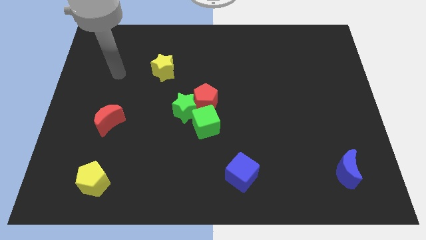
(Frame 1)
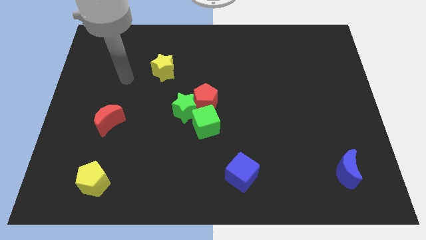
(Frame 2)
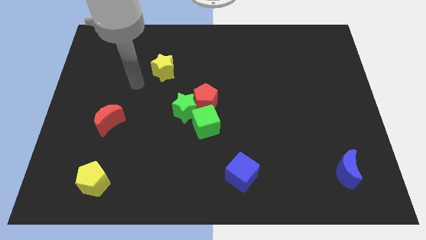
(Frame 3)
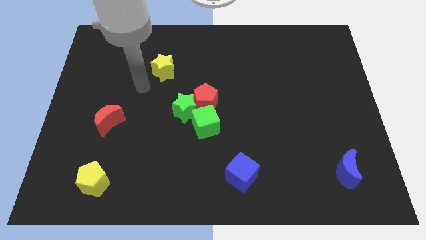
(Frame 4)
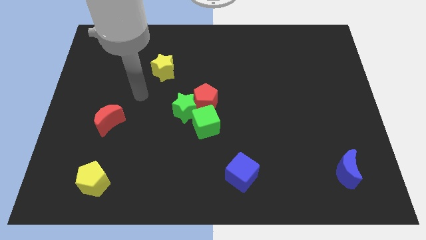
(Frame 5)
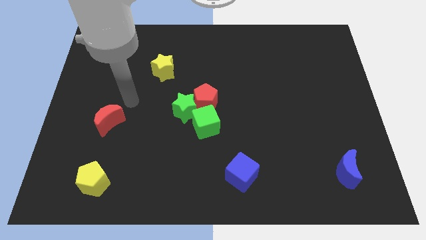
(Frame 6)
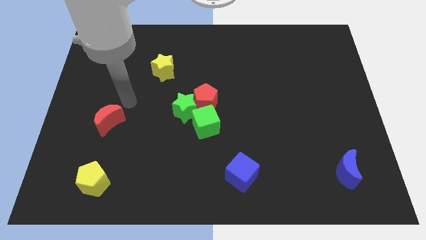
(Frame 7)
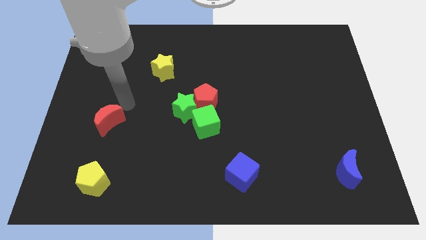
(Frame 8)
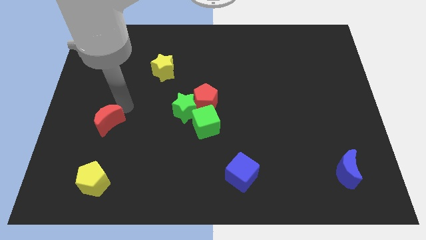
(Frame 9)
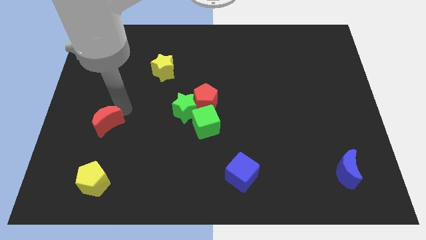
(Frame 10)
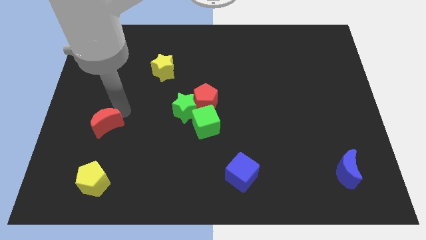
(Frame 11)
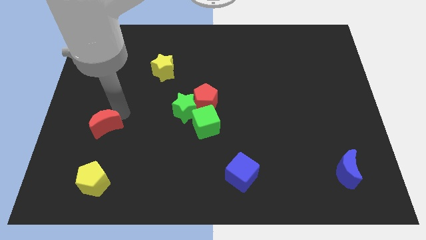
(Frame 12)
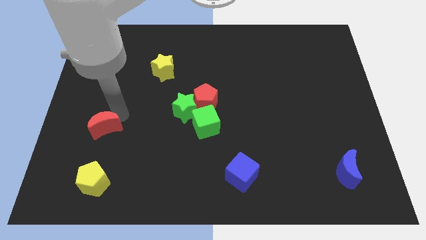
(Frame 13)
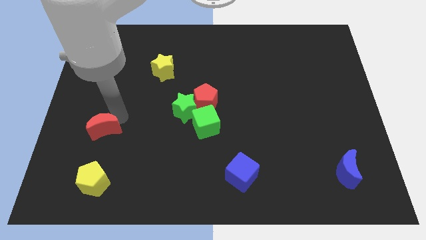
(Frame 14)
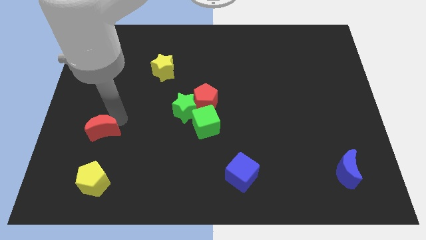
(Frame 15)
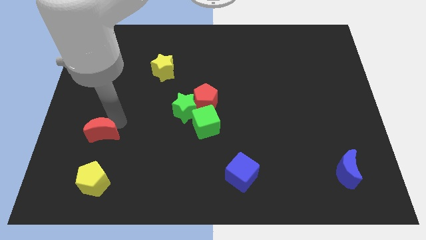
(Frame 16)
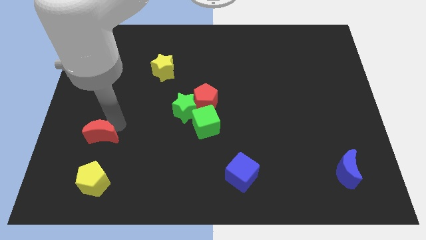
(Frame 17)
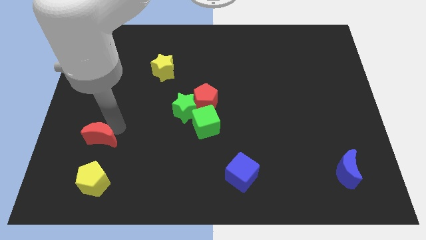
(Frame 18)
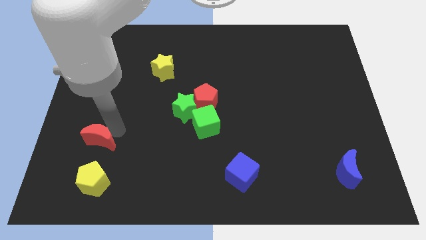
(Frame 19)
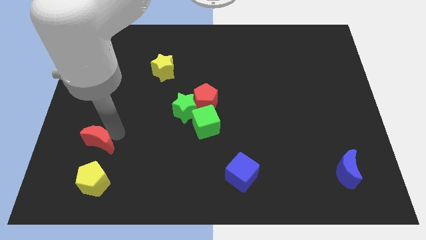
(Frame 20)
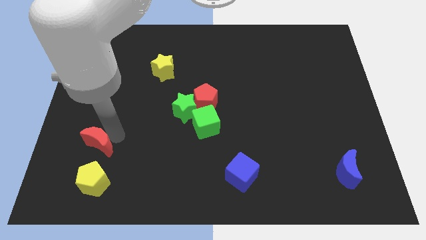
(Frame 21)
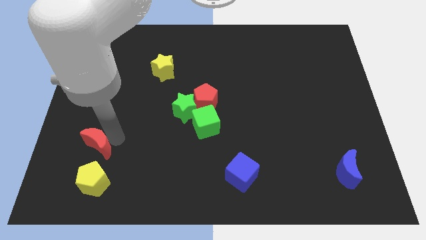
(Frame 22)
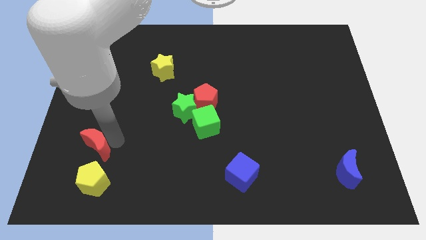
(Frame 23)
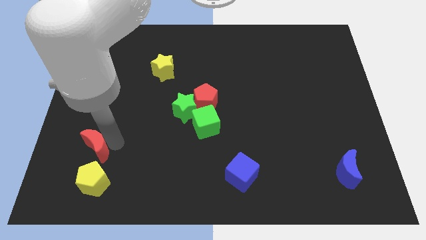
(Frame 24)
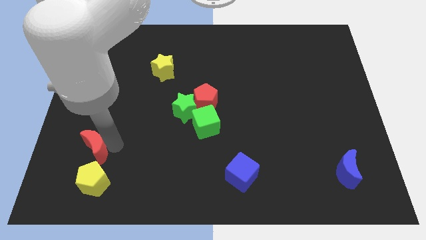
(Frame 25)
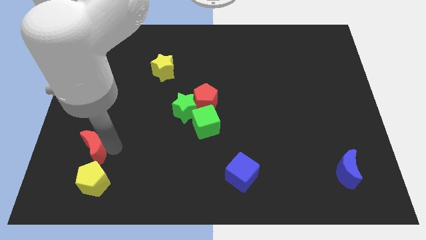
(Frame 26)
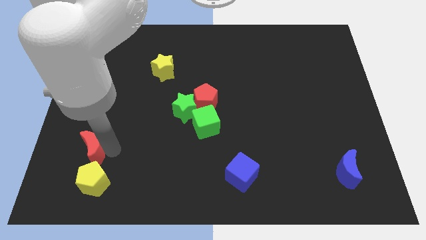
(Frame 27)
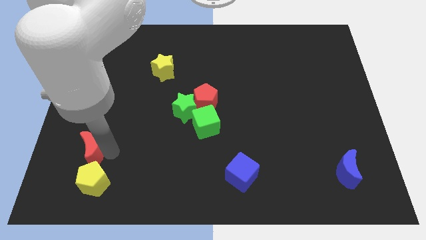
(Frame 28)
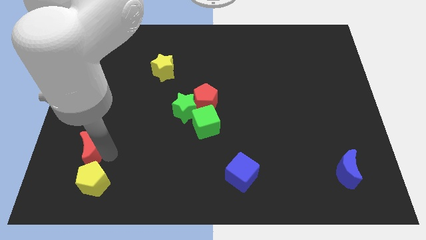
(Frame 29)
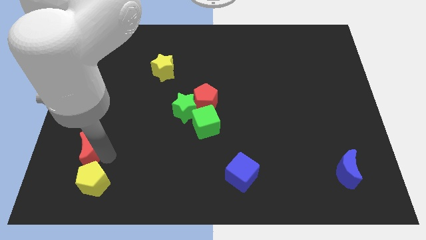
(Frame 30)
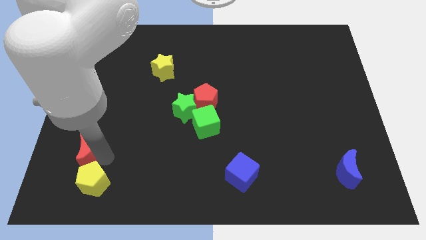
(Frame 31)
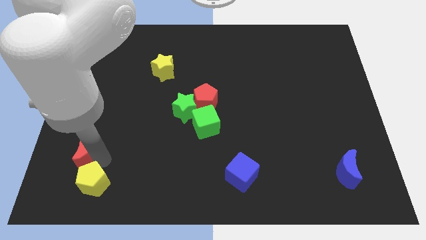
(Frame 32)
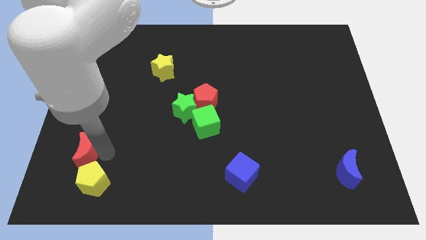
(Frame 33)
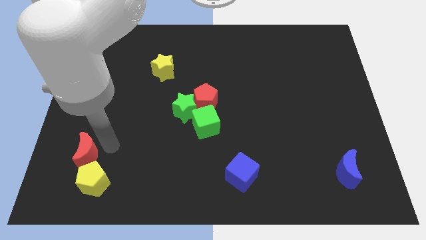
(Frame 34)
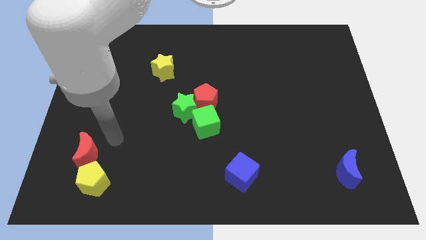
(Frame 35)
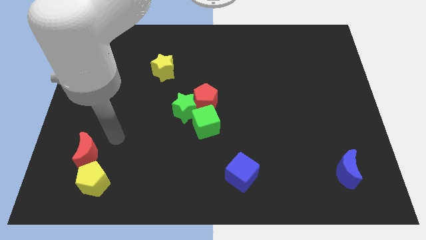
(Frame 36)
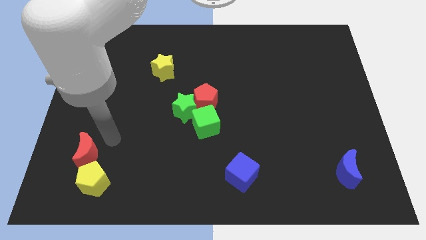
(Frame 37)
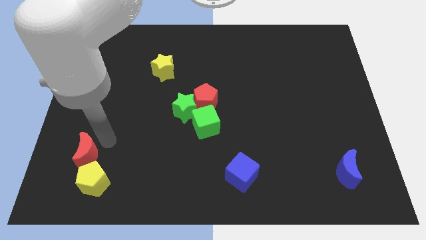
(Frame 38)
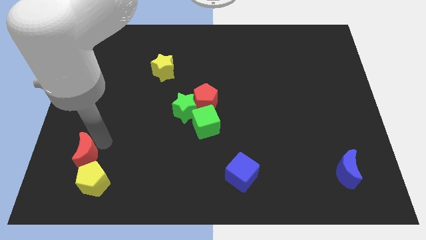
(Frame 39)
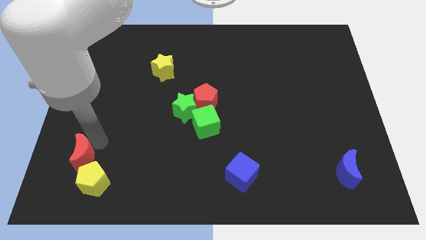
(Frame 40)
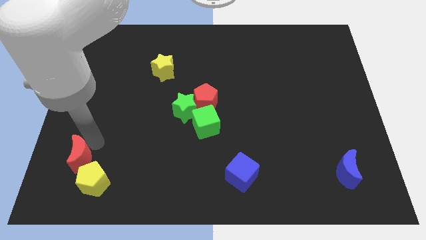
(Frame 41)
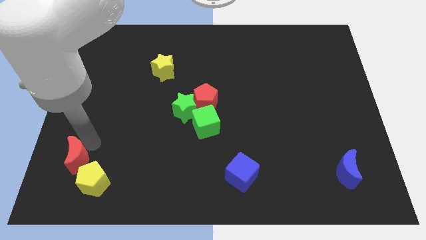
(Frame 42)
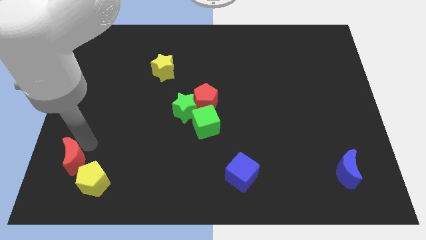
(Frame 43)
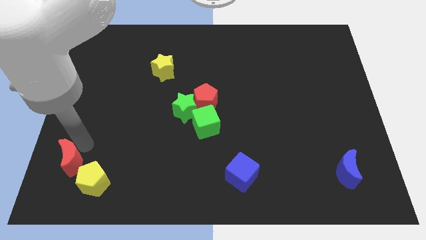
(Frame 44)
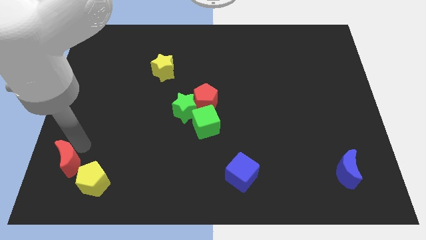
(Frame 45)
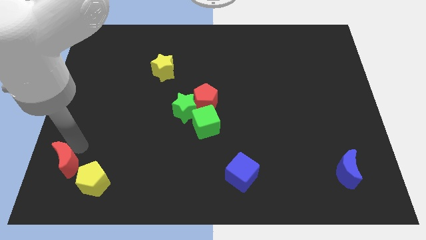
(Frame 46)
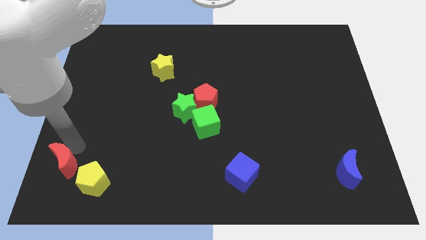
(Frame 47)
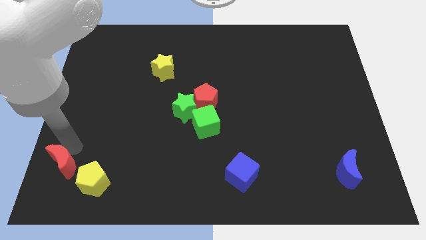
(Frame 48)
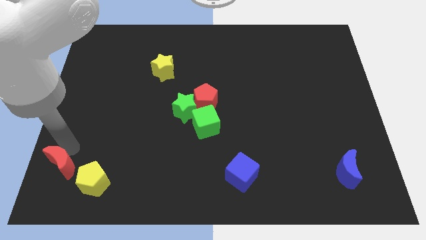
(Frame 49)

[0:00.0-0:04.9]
push the red moon to the lower left corner

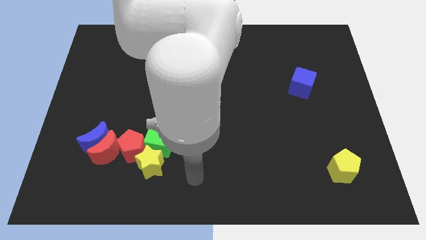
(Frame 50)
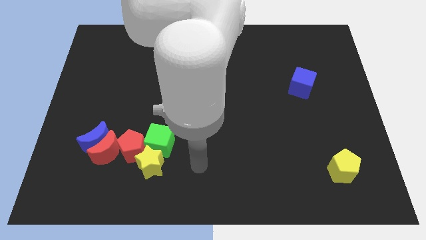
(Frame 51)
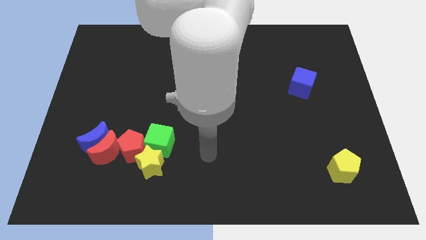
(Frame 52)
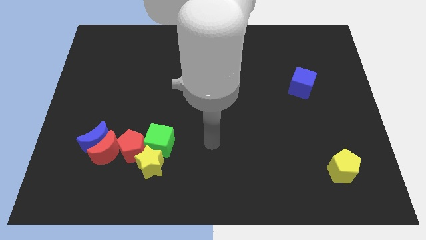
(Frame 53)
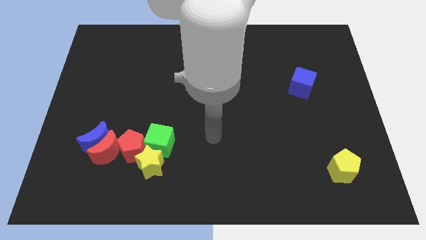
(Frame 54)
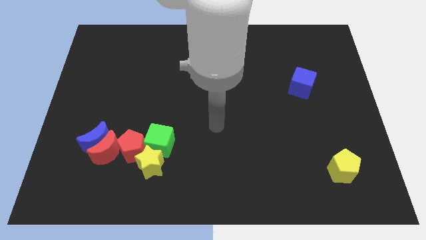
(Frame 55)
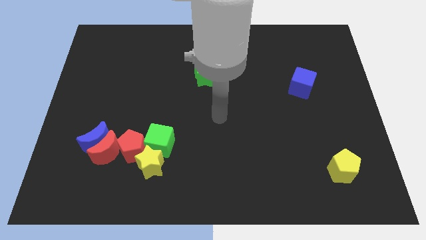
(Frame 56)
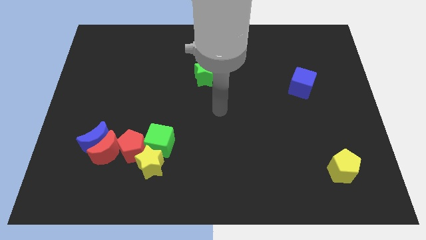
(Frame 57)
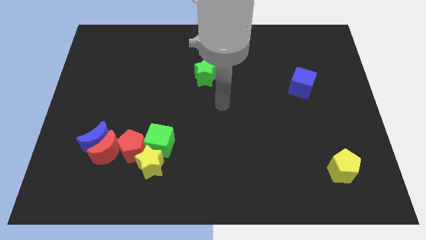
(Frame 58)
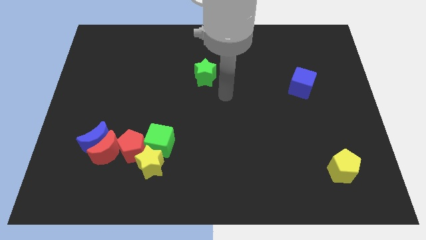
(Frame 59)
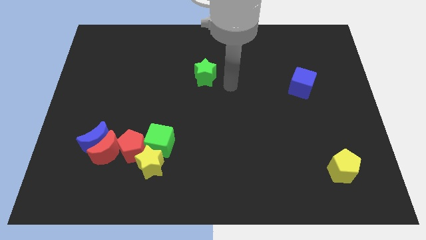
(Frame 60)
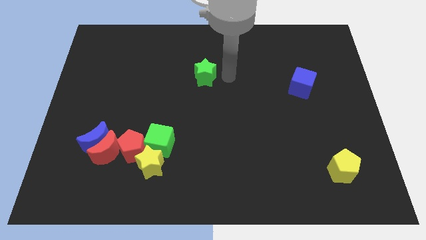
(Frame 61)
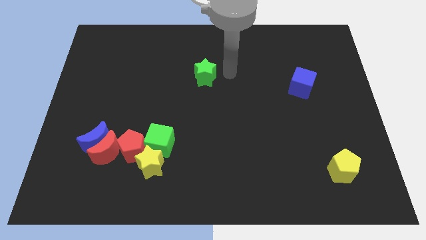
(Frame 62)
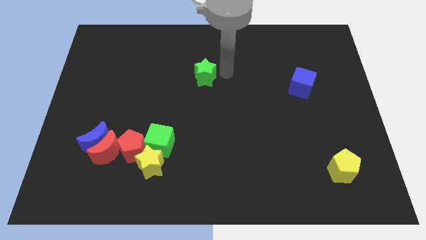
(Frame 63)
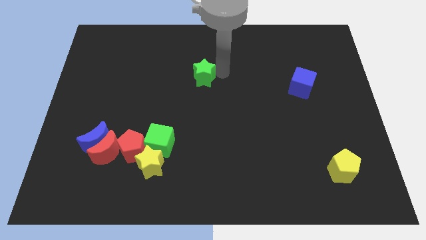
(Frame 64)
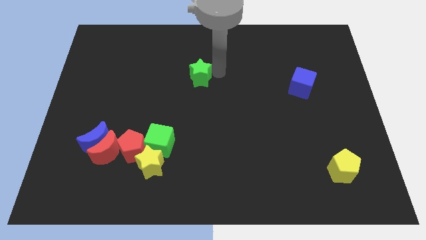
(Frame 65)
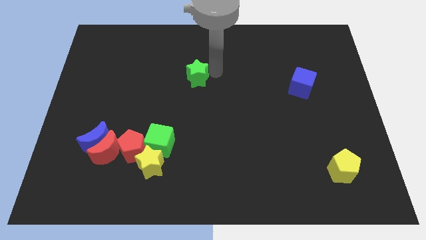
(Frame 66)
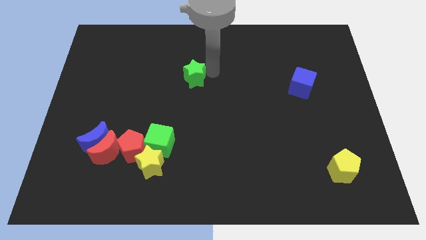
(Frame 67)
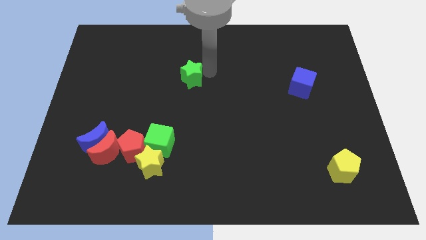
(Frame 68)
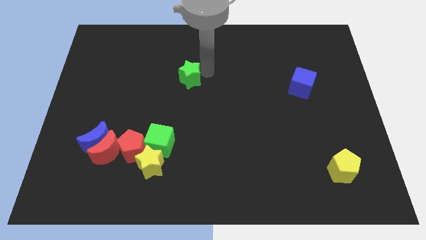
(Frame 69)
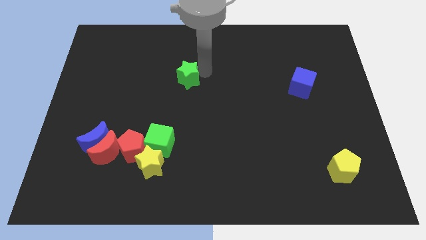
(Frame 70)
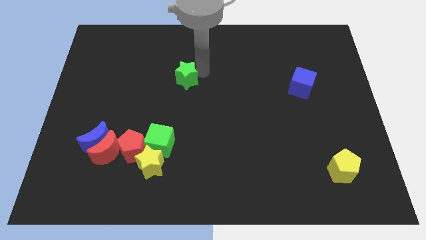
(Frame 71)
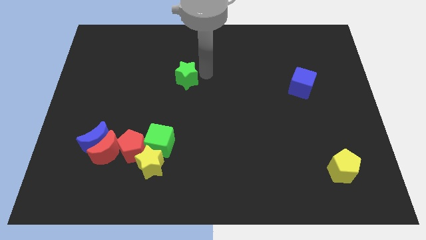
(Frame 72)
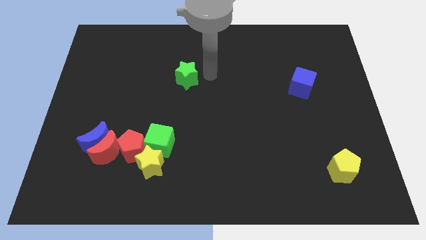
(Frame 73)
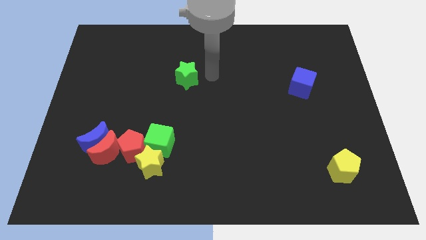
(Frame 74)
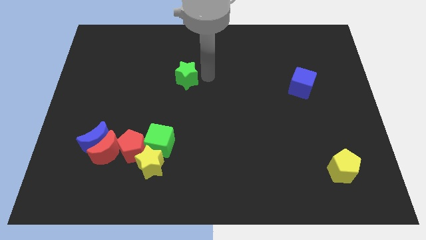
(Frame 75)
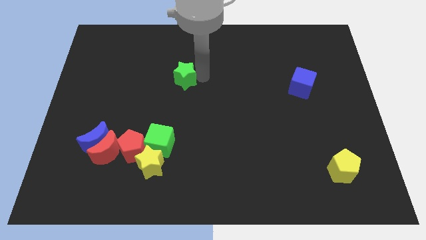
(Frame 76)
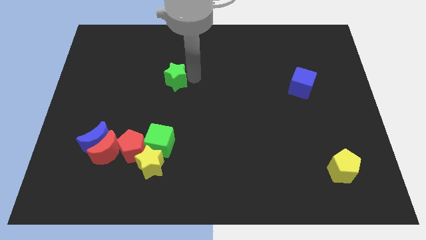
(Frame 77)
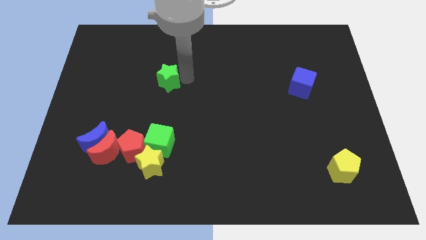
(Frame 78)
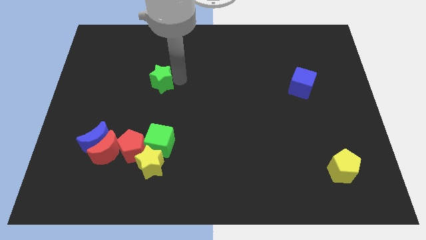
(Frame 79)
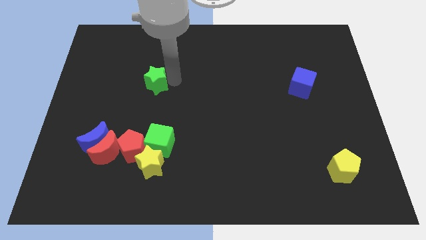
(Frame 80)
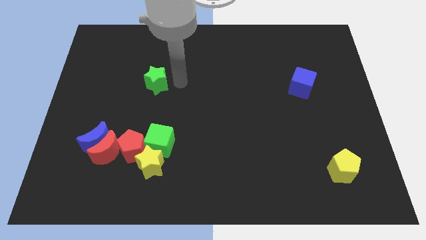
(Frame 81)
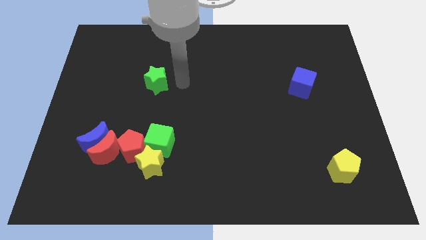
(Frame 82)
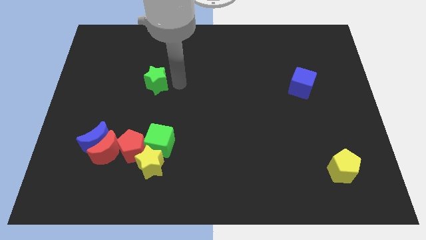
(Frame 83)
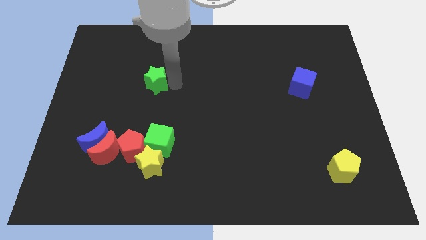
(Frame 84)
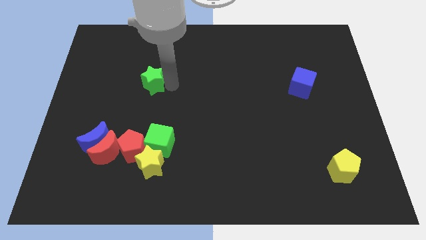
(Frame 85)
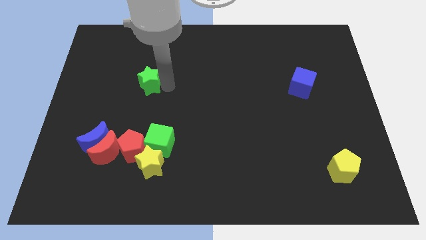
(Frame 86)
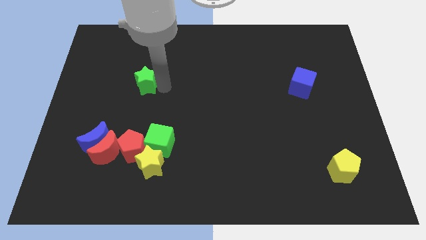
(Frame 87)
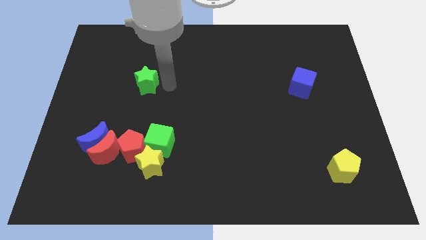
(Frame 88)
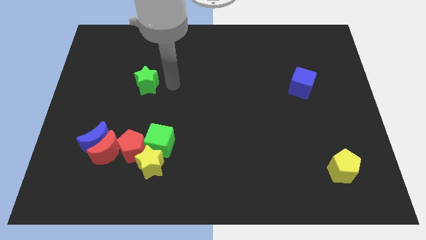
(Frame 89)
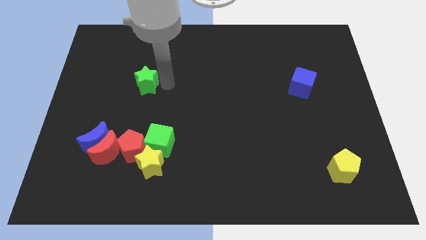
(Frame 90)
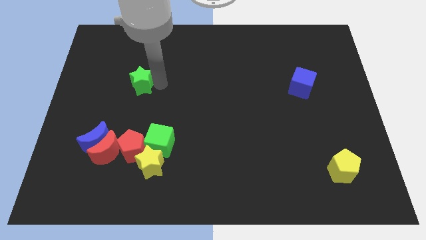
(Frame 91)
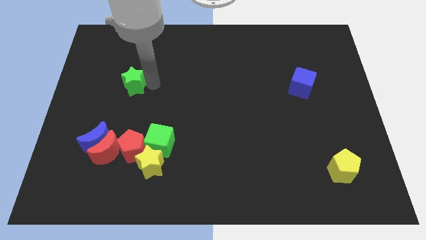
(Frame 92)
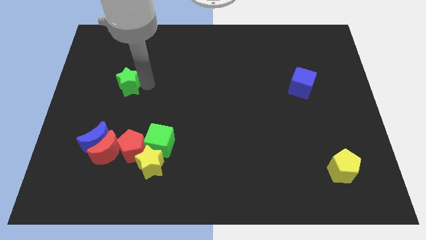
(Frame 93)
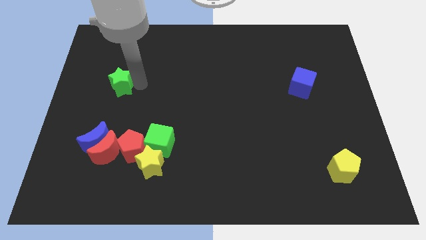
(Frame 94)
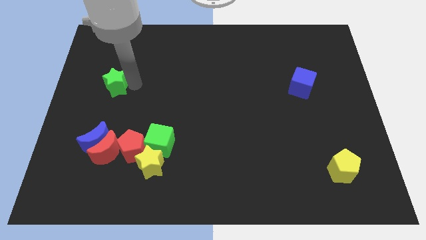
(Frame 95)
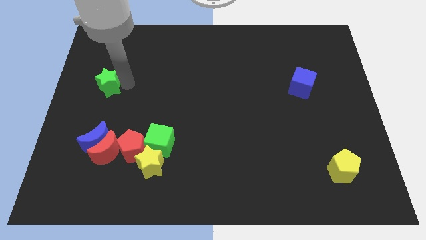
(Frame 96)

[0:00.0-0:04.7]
put the green star to the center left
